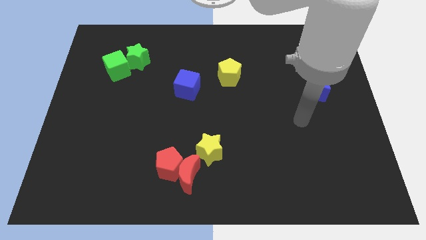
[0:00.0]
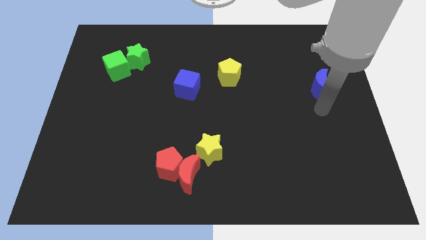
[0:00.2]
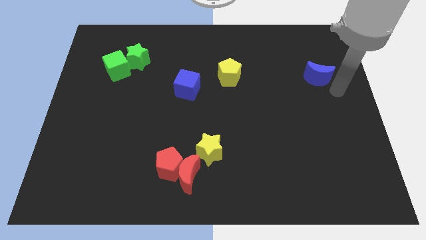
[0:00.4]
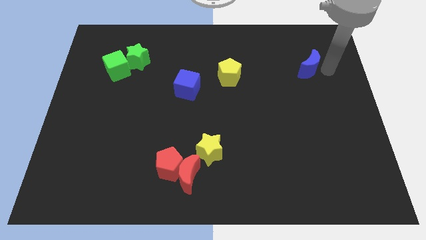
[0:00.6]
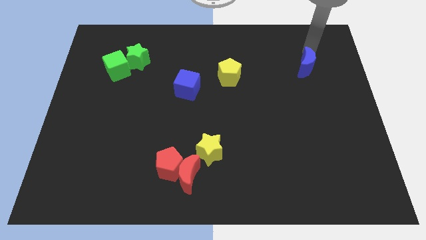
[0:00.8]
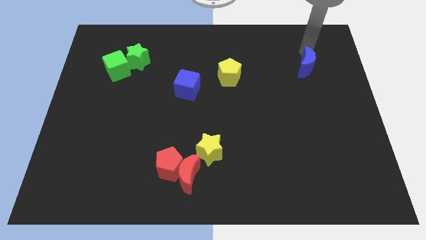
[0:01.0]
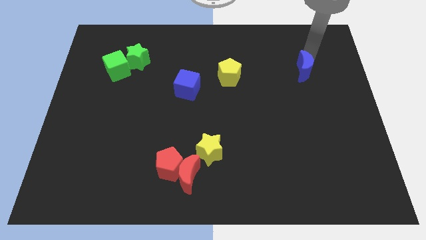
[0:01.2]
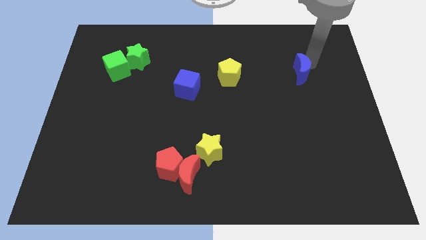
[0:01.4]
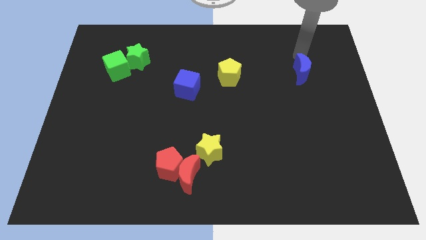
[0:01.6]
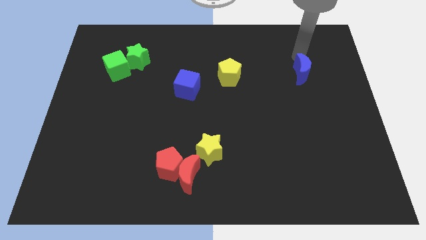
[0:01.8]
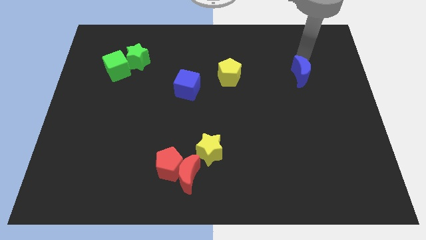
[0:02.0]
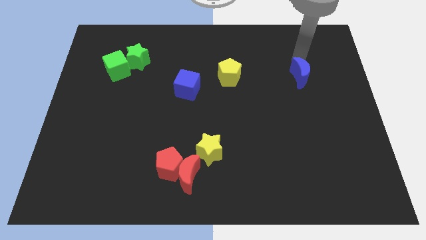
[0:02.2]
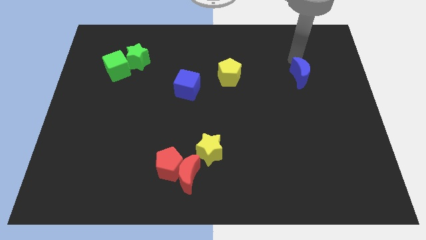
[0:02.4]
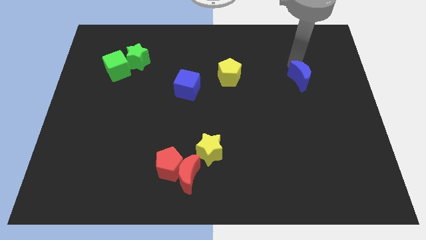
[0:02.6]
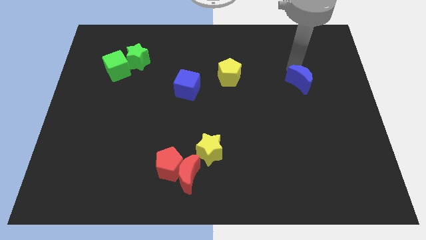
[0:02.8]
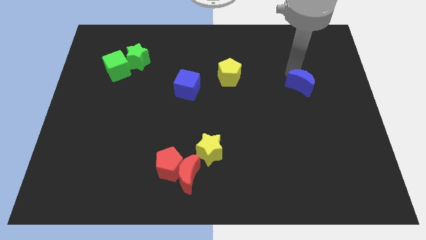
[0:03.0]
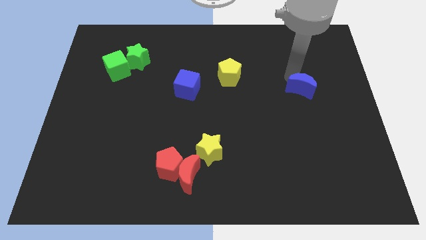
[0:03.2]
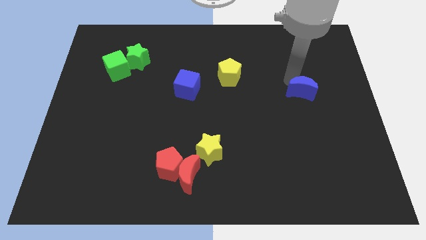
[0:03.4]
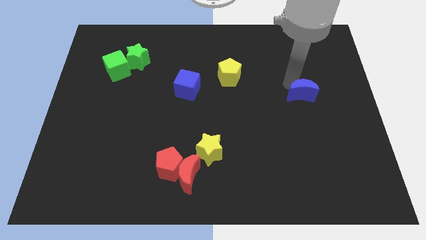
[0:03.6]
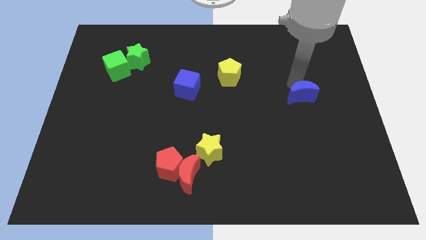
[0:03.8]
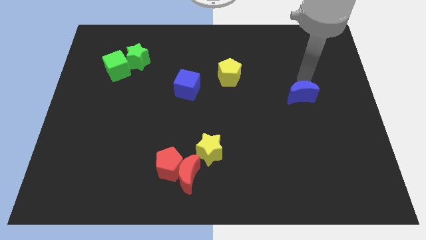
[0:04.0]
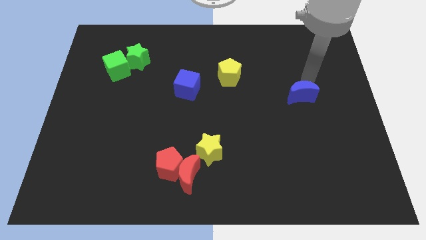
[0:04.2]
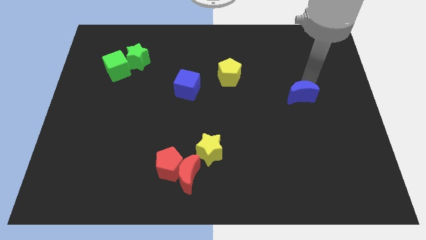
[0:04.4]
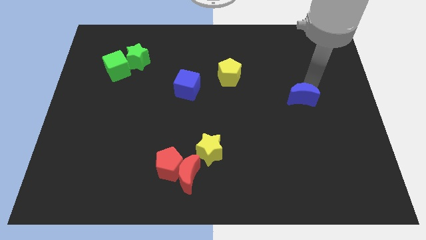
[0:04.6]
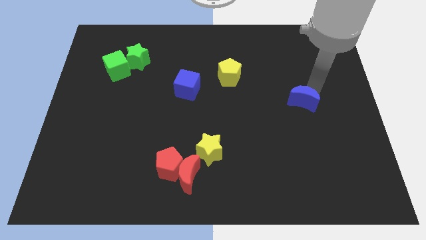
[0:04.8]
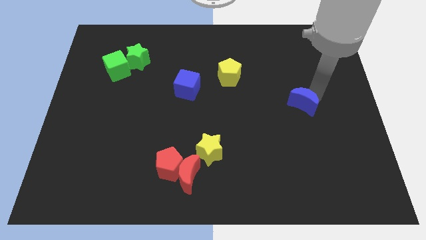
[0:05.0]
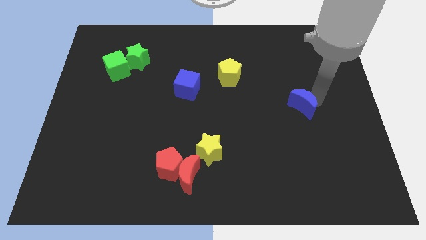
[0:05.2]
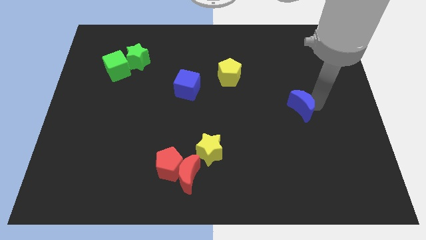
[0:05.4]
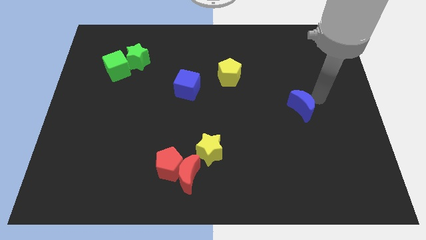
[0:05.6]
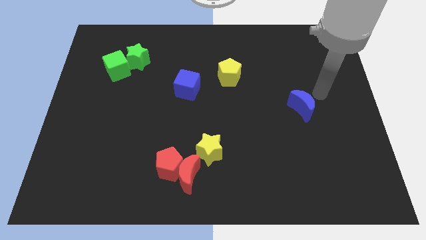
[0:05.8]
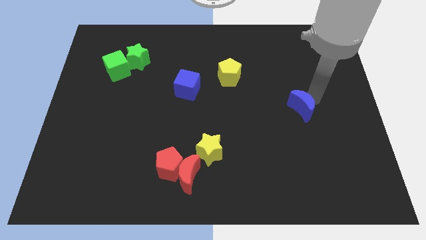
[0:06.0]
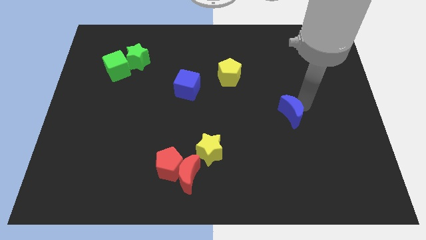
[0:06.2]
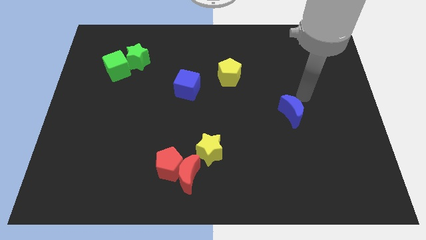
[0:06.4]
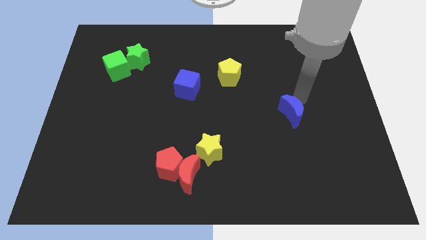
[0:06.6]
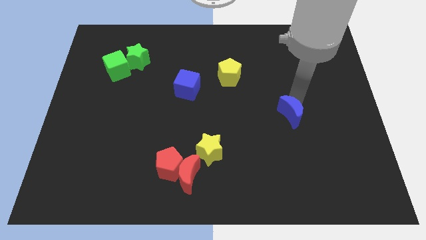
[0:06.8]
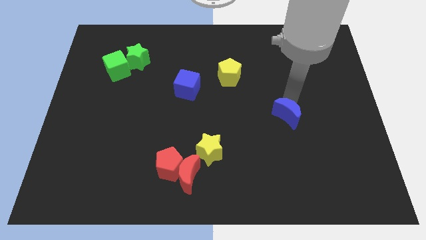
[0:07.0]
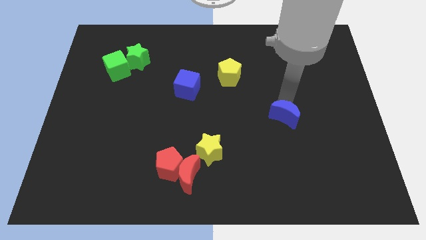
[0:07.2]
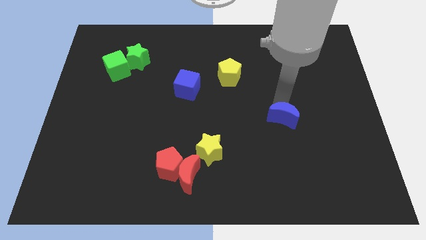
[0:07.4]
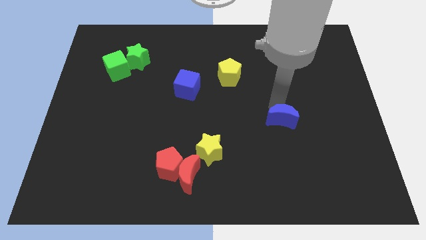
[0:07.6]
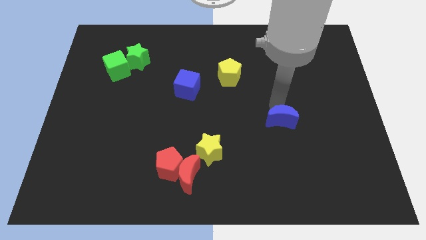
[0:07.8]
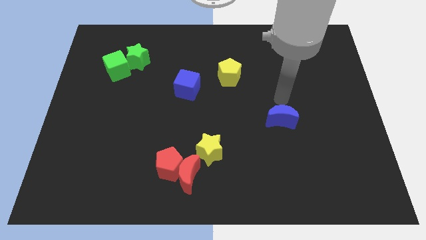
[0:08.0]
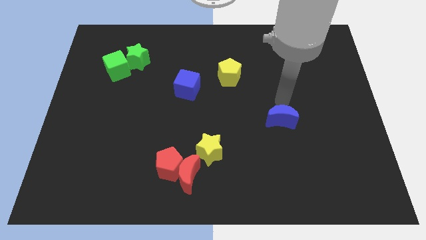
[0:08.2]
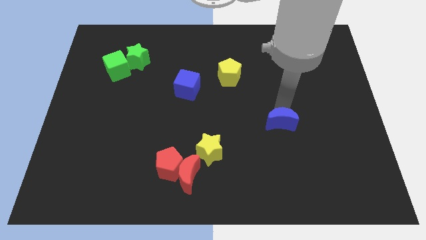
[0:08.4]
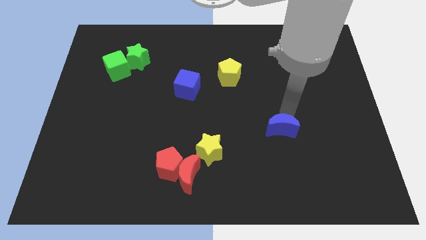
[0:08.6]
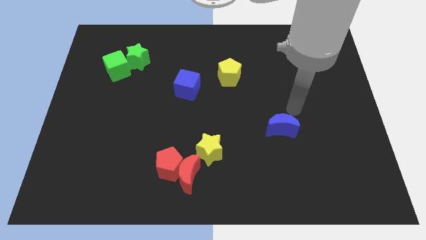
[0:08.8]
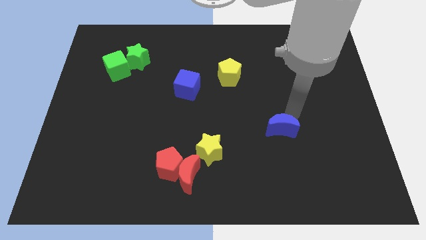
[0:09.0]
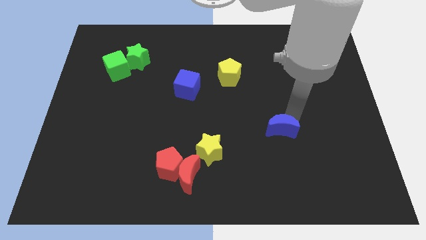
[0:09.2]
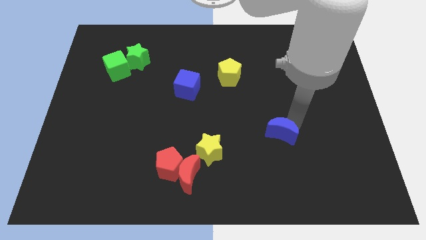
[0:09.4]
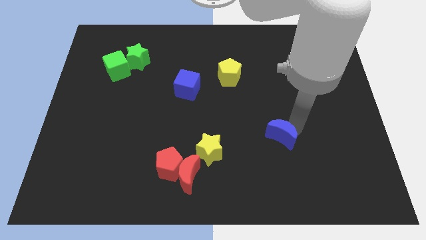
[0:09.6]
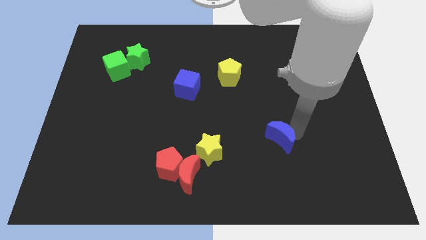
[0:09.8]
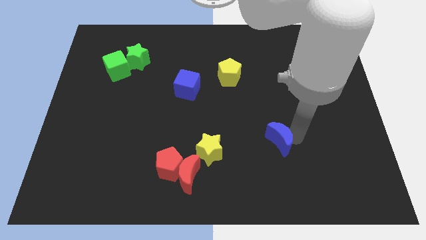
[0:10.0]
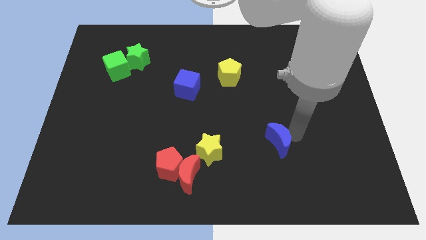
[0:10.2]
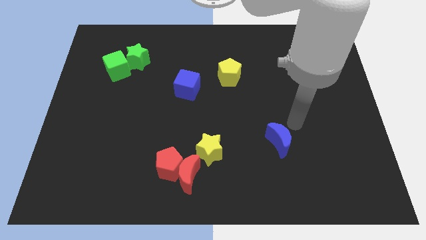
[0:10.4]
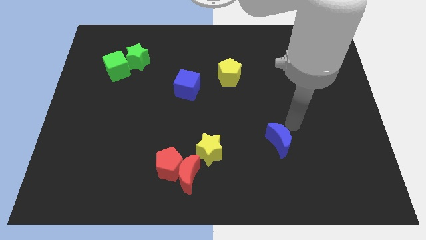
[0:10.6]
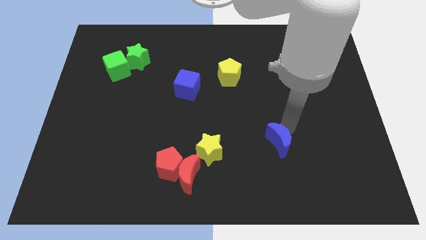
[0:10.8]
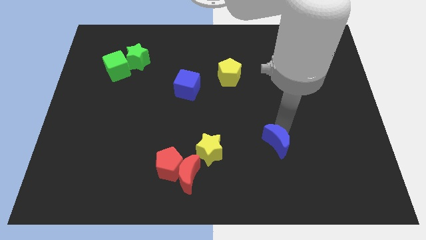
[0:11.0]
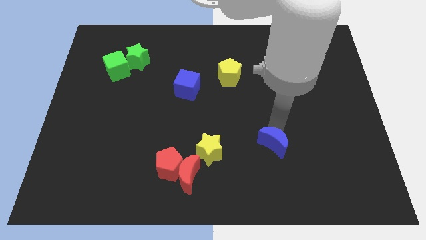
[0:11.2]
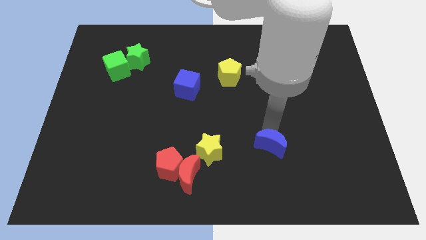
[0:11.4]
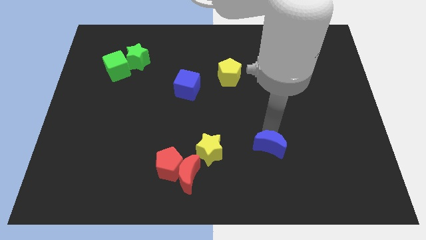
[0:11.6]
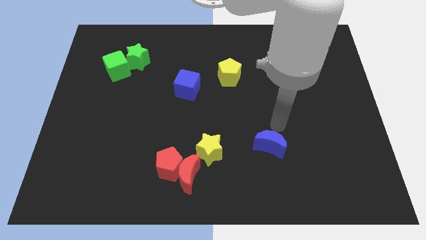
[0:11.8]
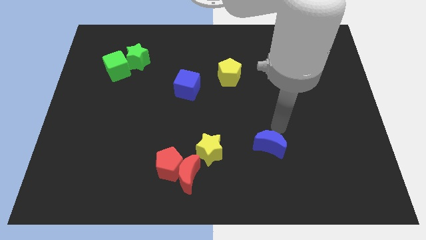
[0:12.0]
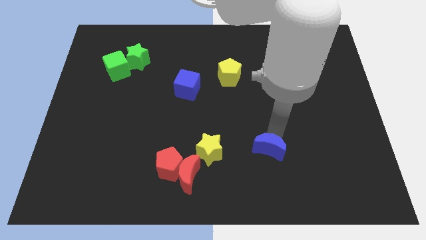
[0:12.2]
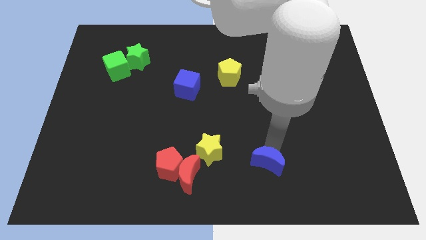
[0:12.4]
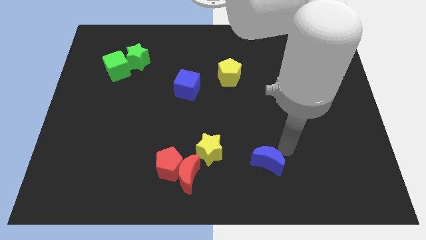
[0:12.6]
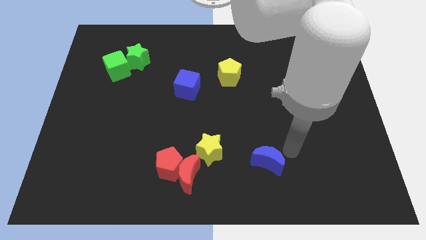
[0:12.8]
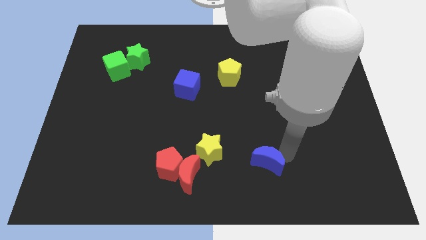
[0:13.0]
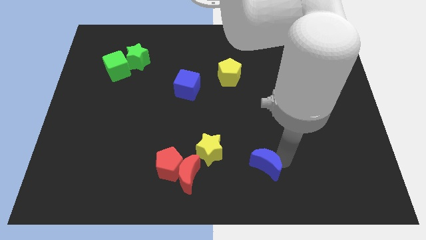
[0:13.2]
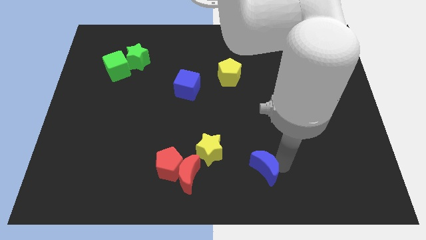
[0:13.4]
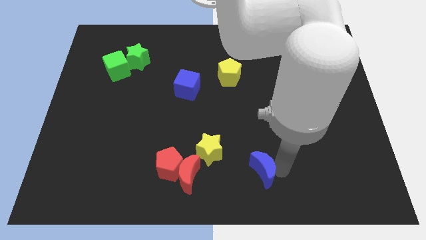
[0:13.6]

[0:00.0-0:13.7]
slide the blue moon to the bottom
